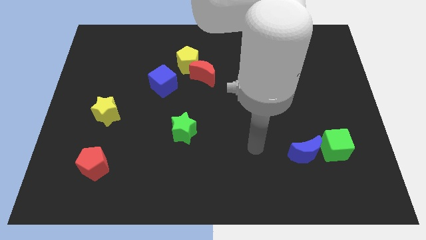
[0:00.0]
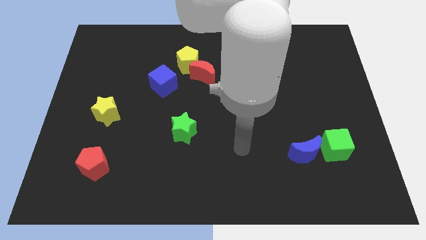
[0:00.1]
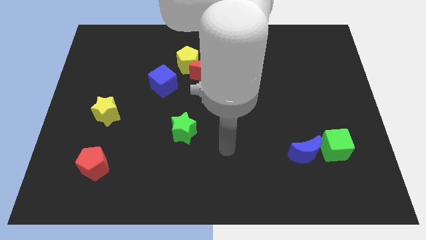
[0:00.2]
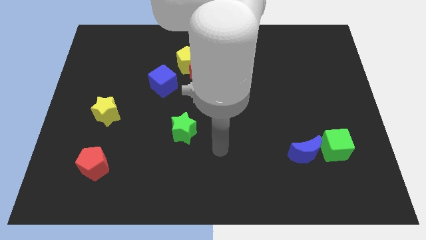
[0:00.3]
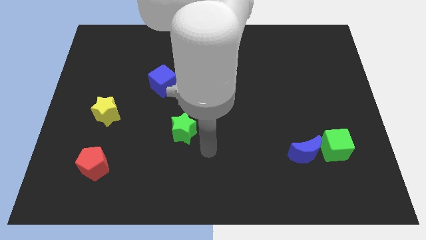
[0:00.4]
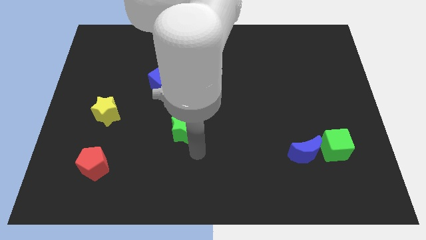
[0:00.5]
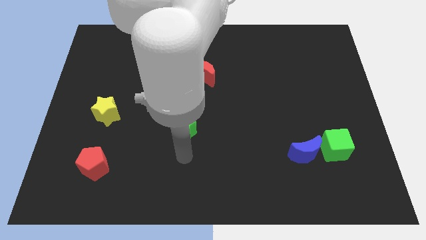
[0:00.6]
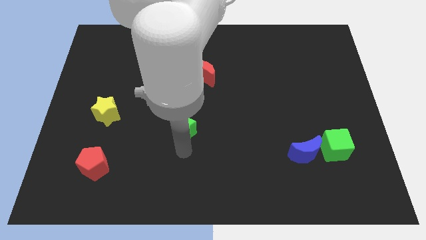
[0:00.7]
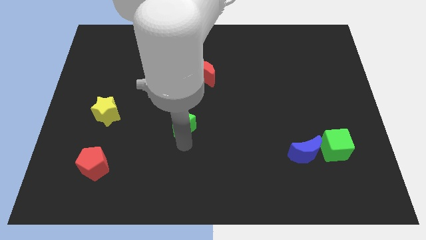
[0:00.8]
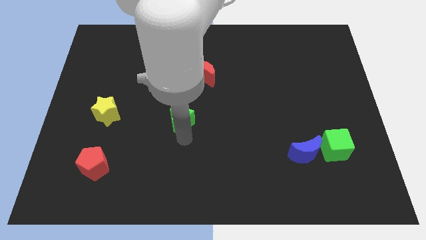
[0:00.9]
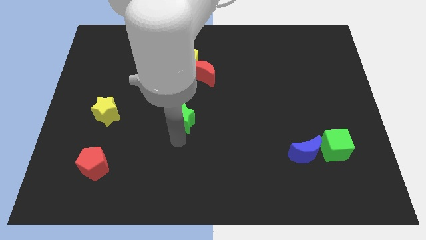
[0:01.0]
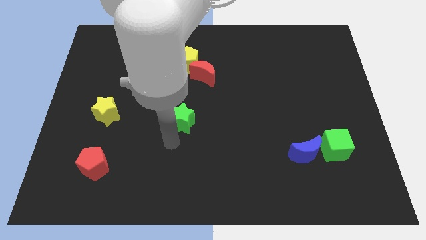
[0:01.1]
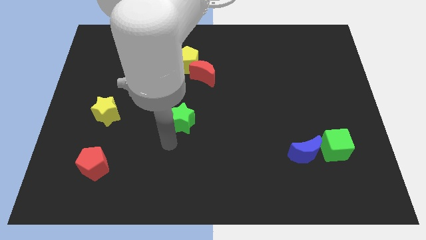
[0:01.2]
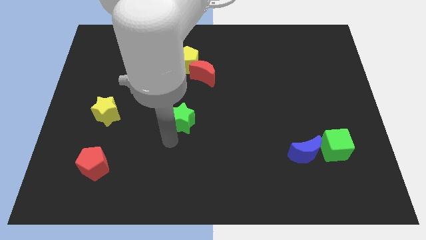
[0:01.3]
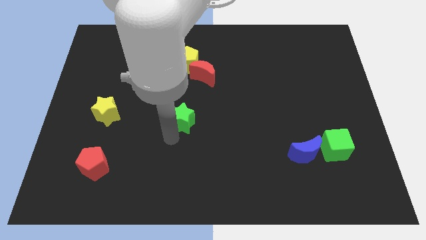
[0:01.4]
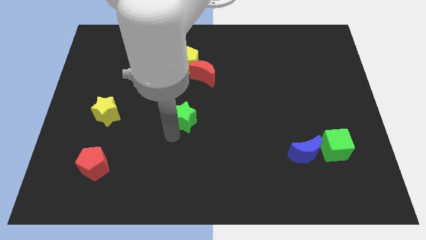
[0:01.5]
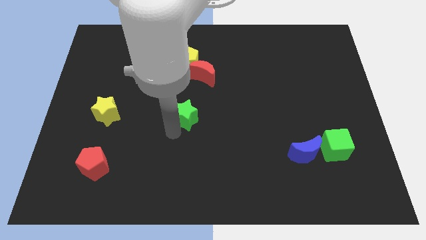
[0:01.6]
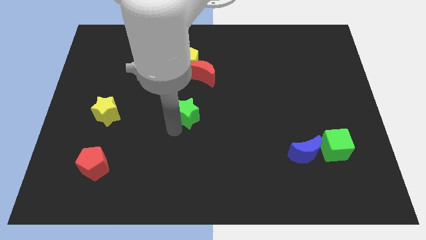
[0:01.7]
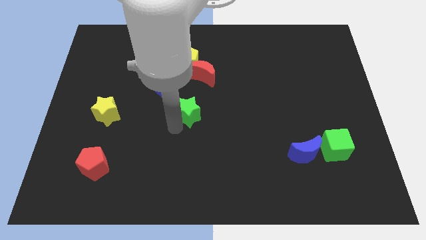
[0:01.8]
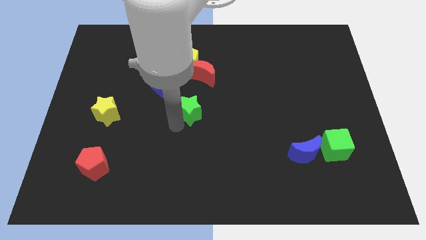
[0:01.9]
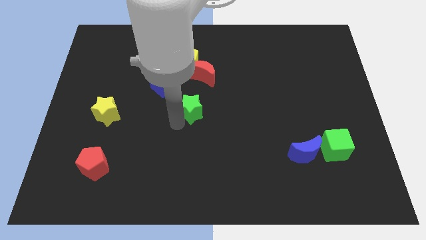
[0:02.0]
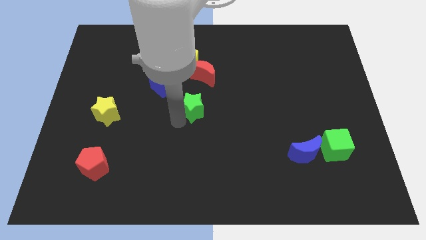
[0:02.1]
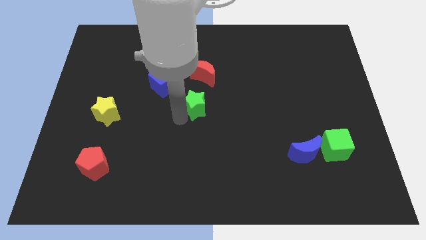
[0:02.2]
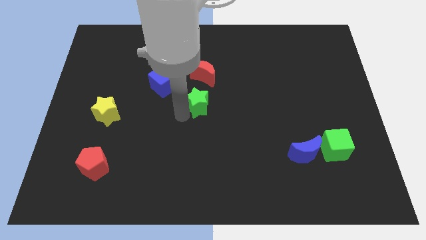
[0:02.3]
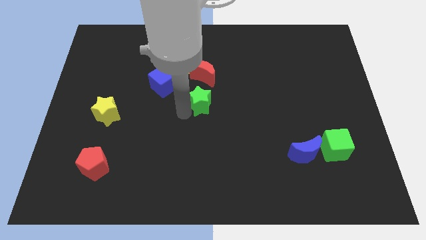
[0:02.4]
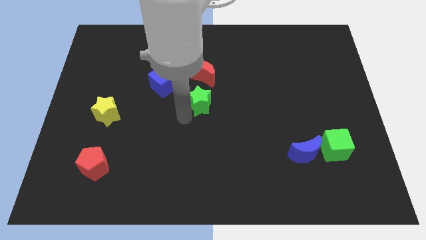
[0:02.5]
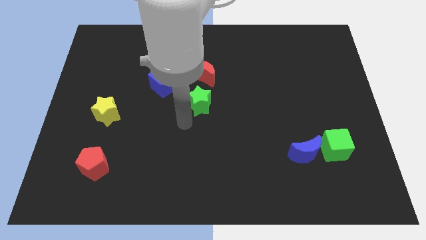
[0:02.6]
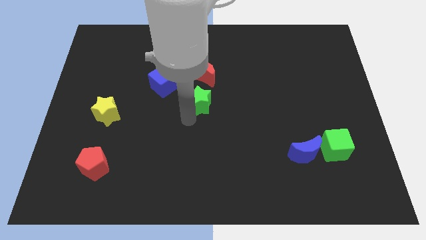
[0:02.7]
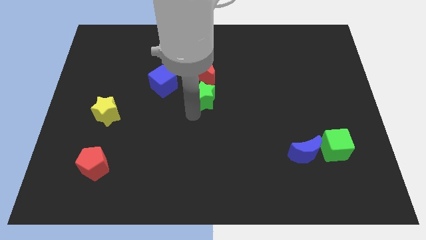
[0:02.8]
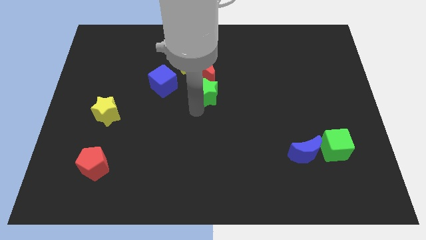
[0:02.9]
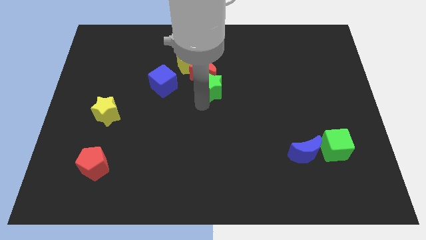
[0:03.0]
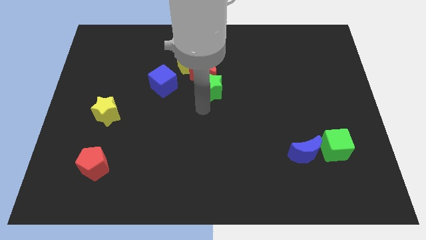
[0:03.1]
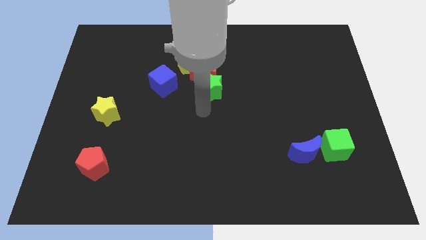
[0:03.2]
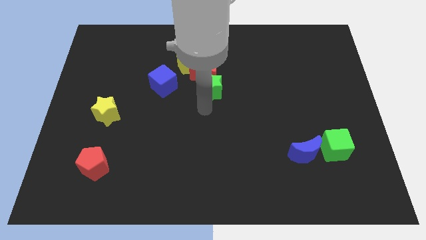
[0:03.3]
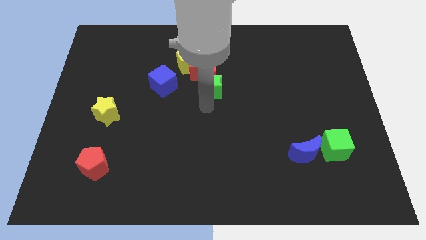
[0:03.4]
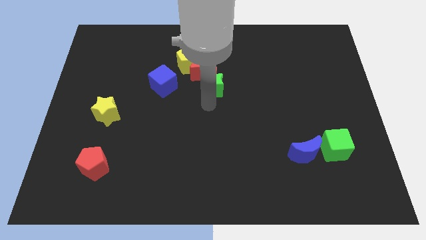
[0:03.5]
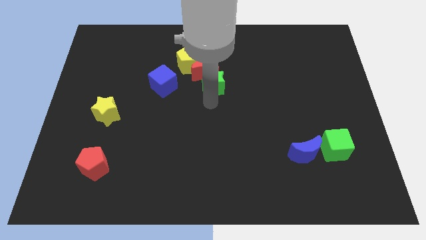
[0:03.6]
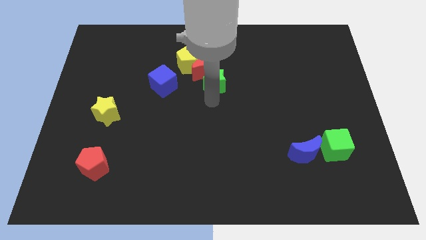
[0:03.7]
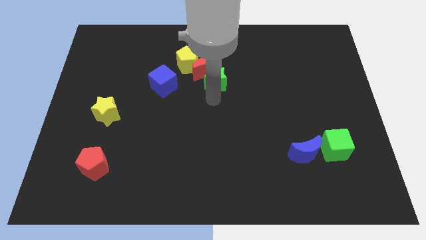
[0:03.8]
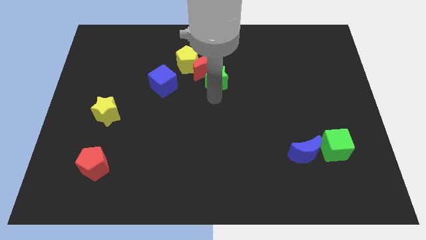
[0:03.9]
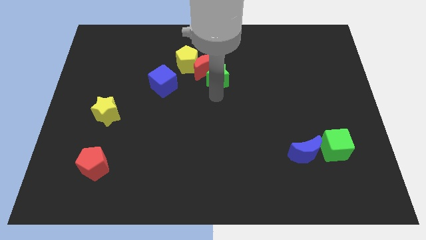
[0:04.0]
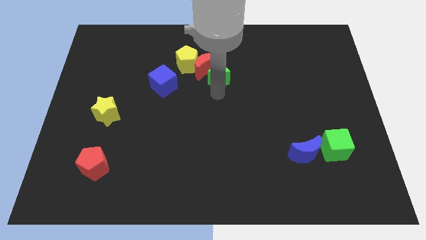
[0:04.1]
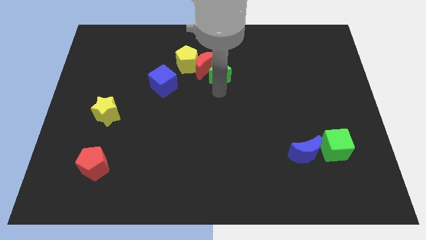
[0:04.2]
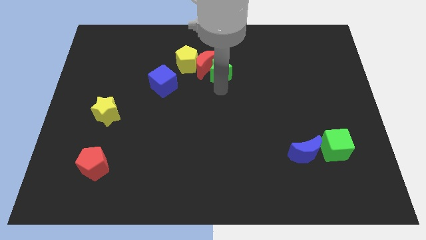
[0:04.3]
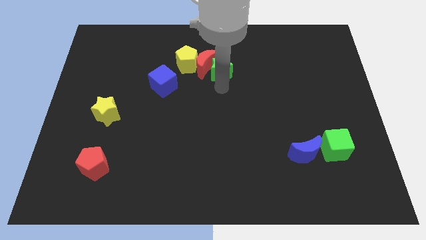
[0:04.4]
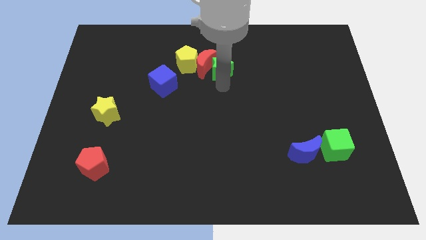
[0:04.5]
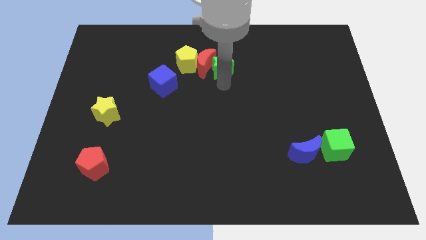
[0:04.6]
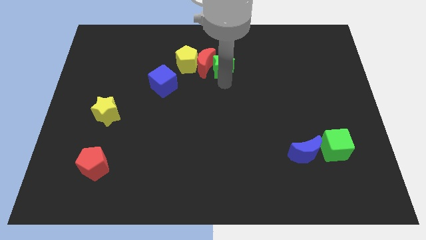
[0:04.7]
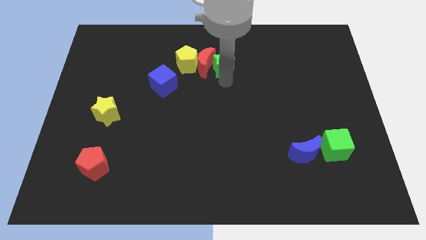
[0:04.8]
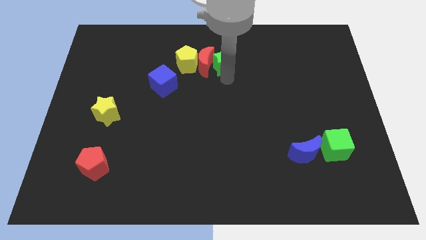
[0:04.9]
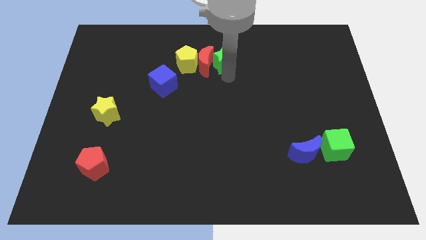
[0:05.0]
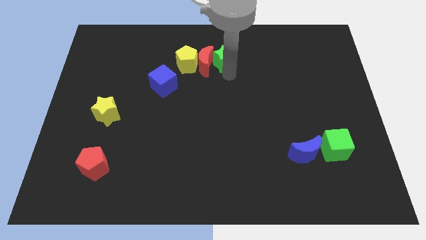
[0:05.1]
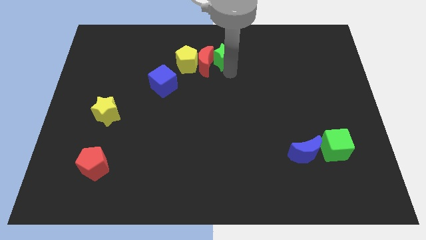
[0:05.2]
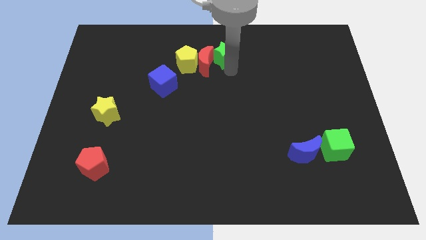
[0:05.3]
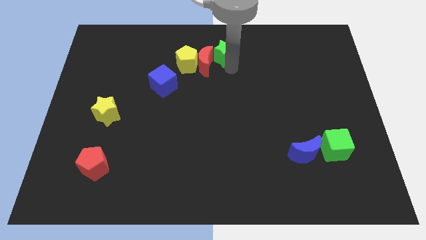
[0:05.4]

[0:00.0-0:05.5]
slide the green star to the towards your base

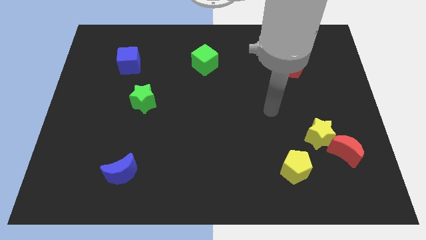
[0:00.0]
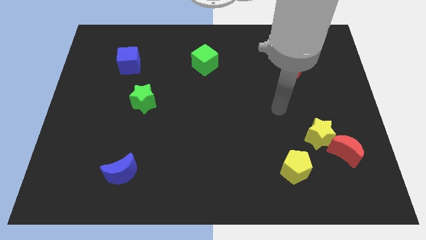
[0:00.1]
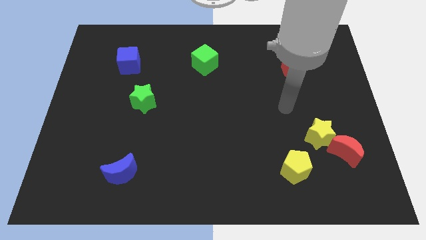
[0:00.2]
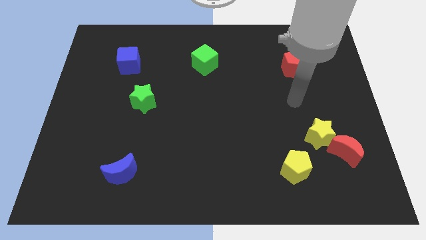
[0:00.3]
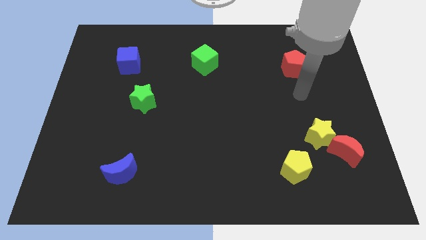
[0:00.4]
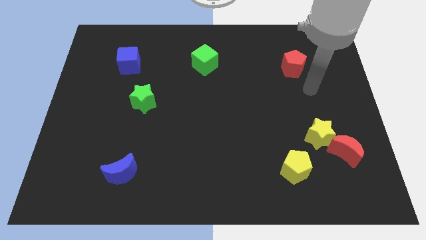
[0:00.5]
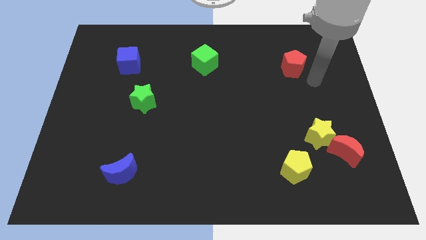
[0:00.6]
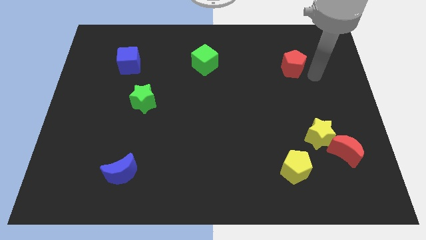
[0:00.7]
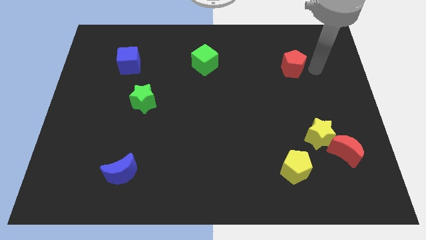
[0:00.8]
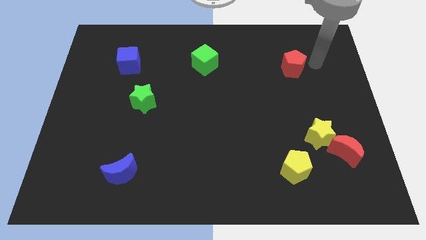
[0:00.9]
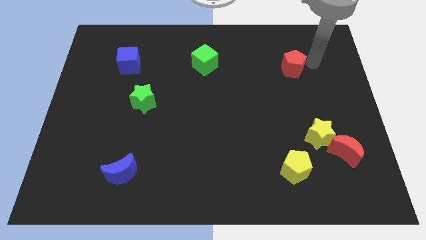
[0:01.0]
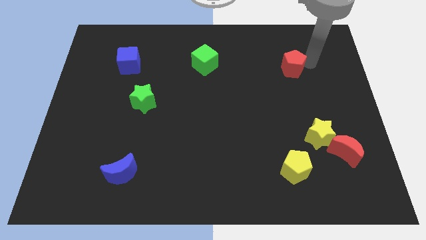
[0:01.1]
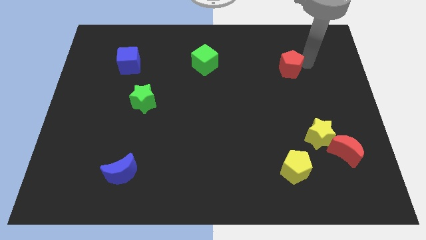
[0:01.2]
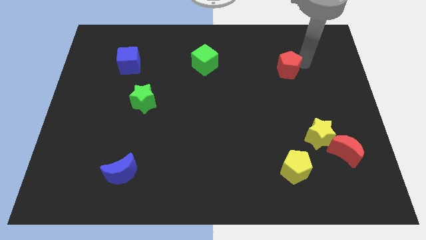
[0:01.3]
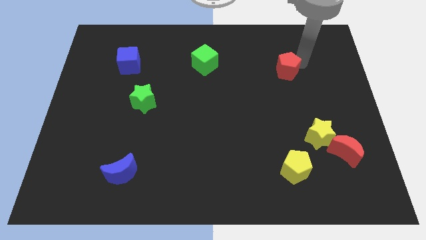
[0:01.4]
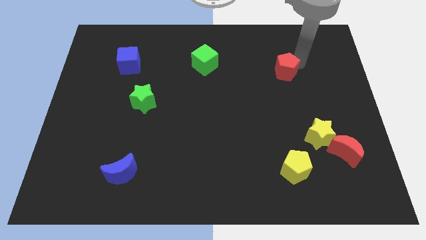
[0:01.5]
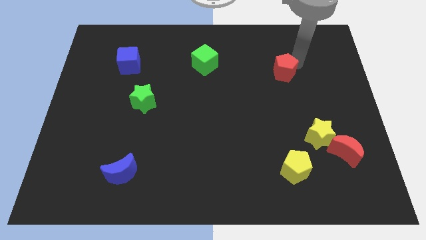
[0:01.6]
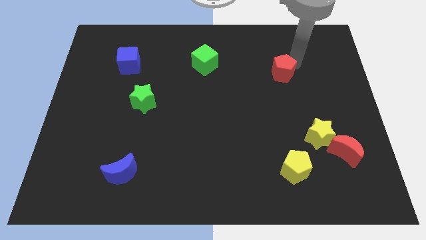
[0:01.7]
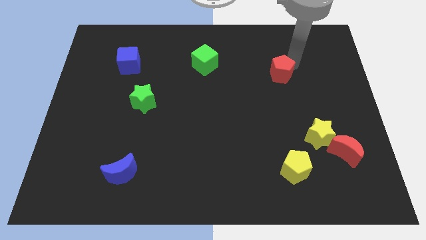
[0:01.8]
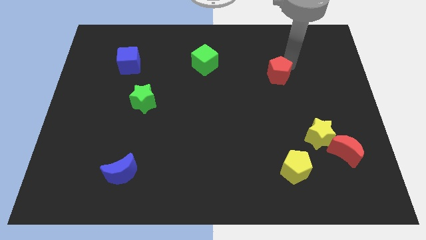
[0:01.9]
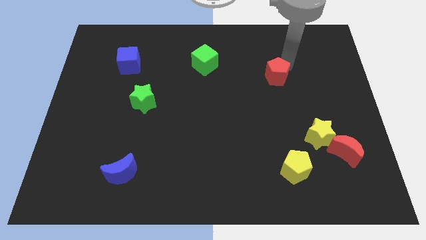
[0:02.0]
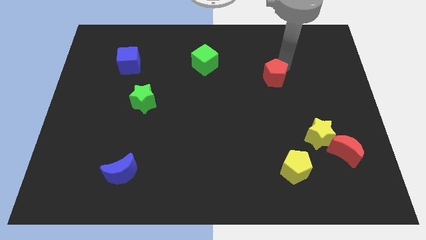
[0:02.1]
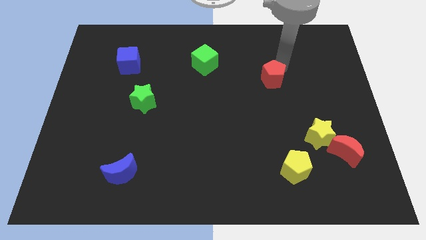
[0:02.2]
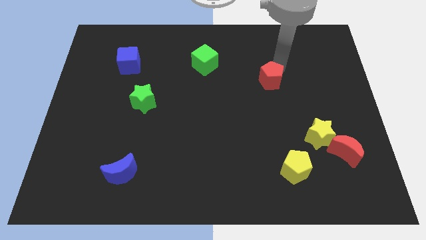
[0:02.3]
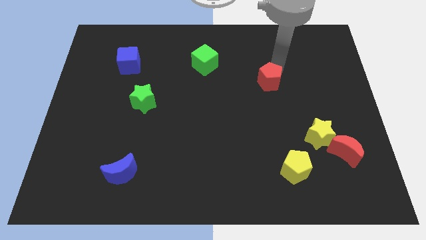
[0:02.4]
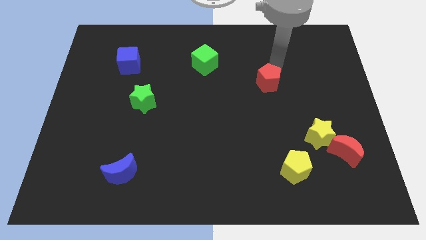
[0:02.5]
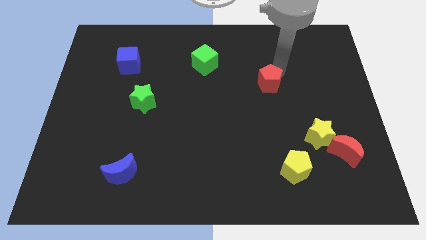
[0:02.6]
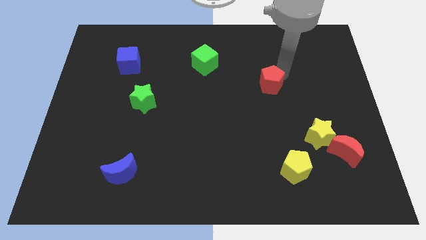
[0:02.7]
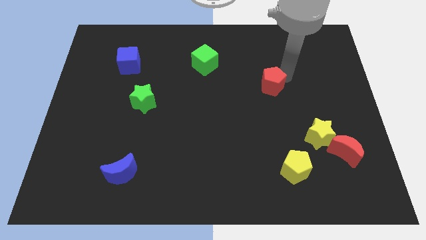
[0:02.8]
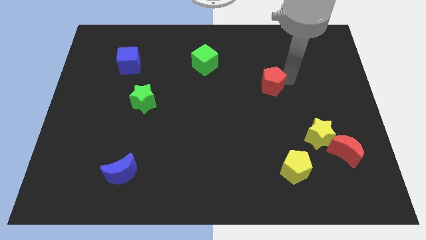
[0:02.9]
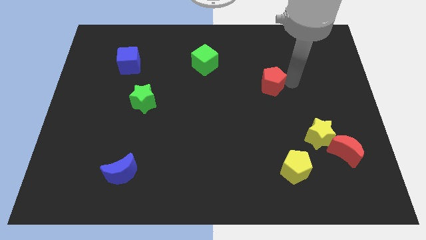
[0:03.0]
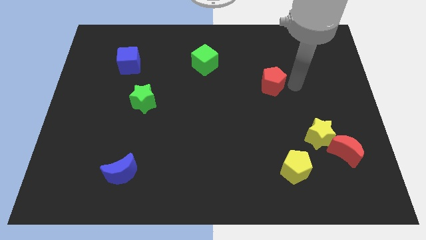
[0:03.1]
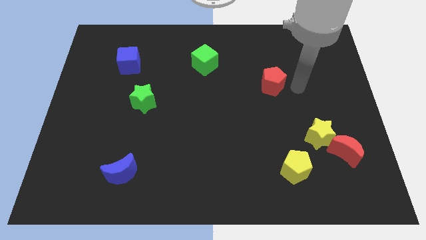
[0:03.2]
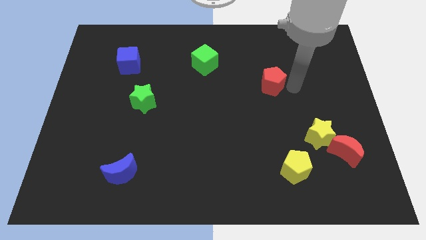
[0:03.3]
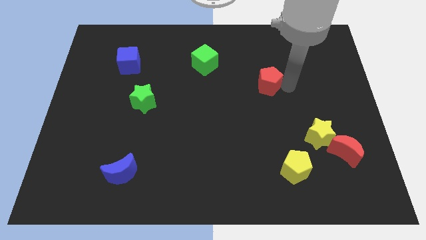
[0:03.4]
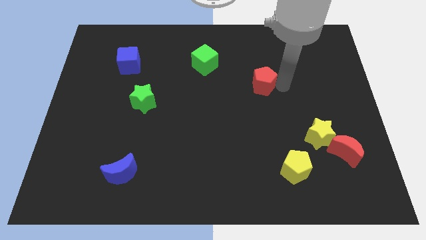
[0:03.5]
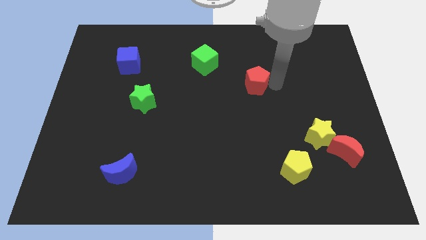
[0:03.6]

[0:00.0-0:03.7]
put the red pentagon to the center
